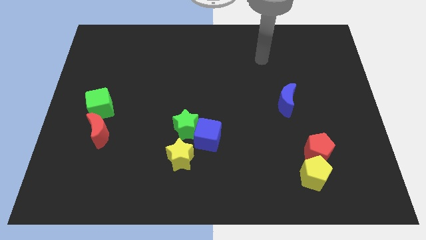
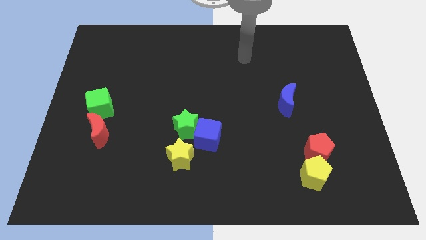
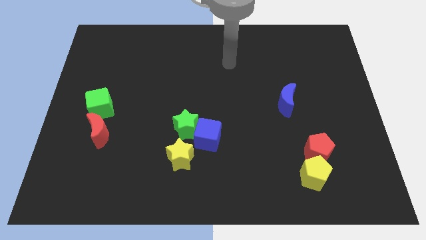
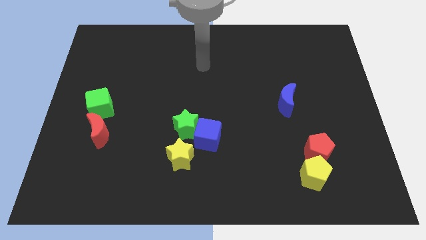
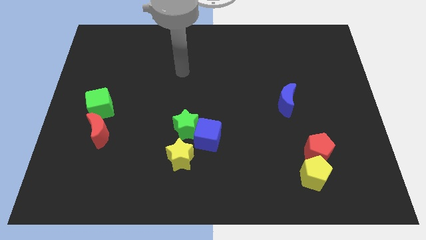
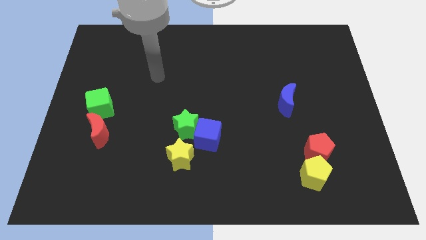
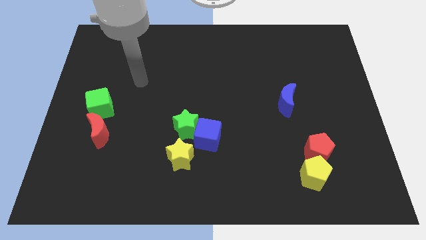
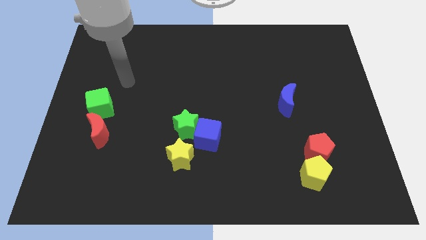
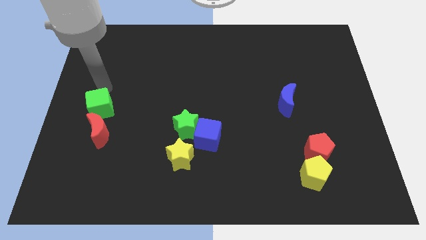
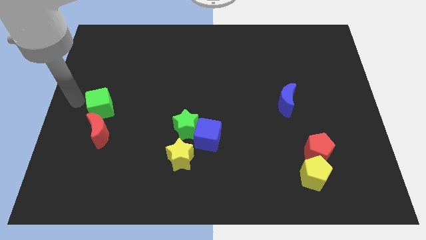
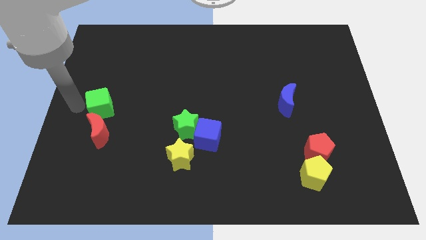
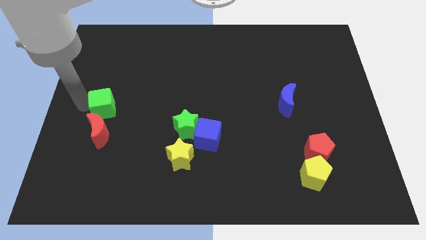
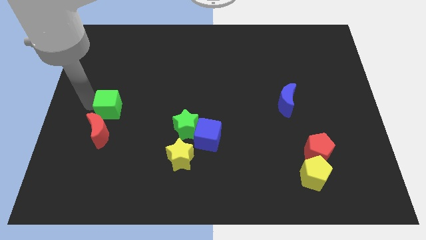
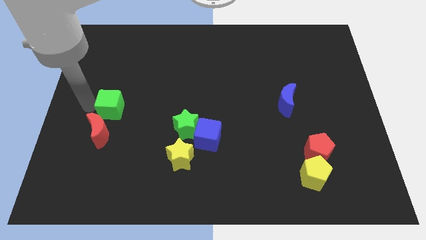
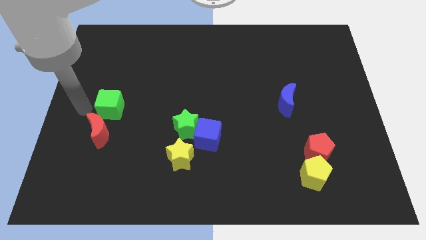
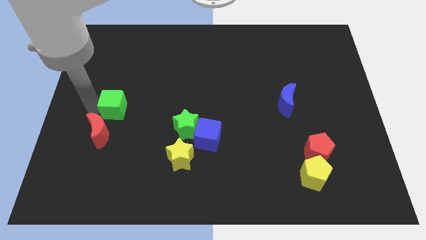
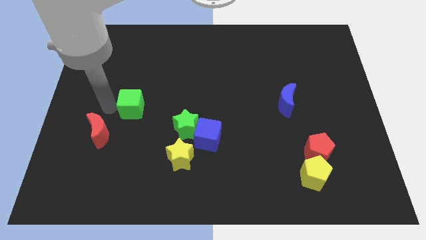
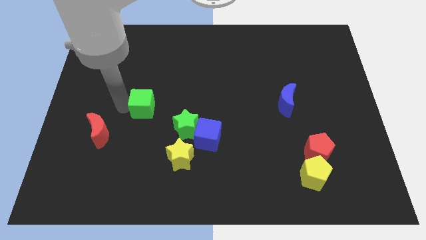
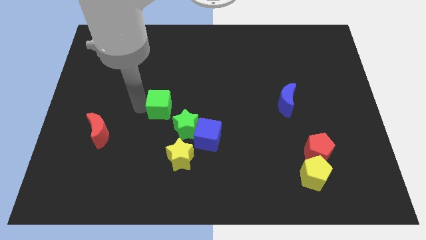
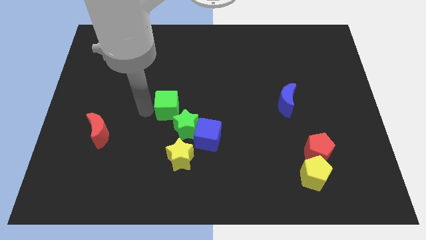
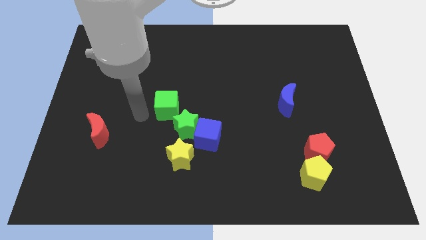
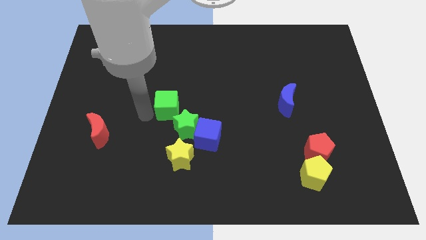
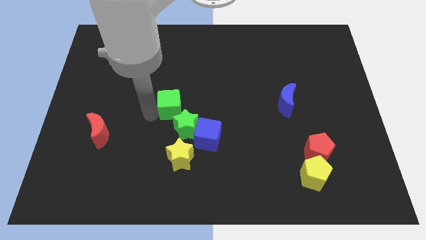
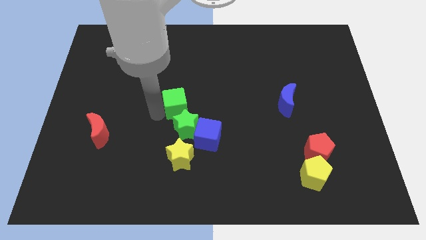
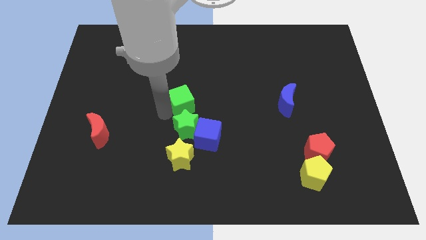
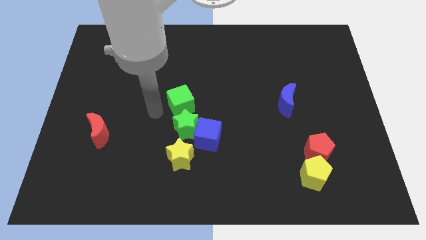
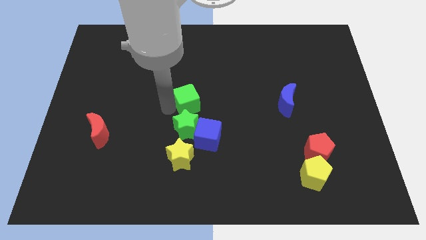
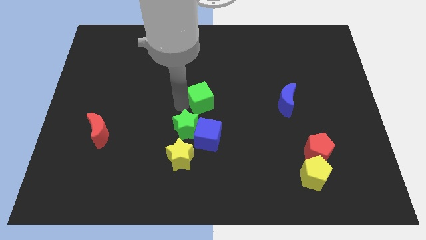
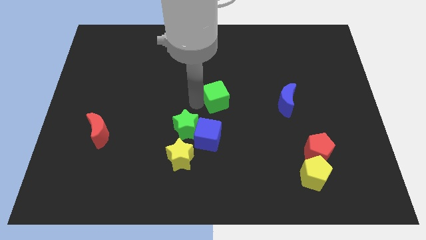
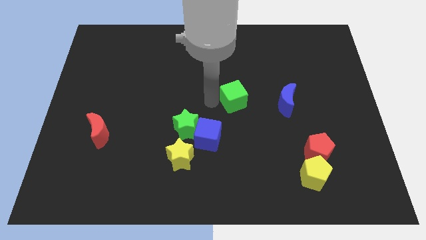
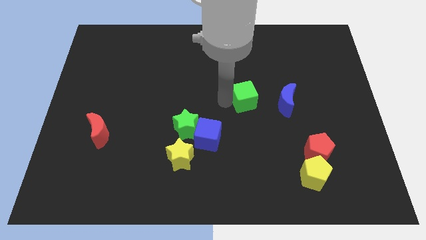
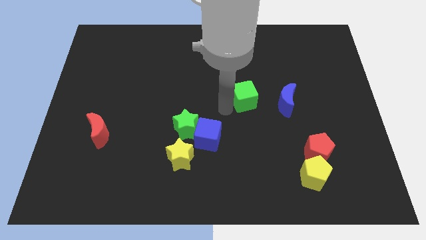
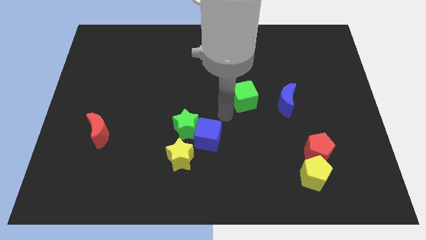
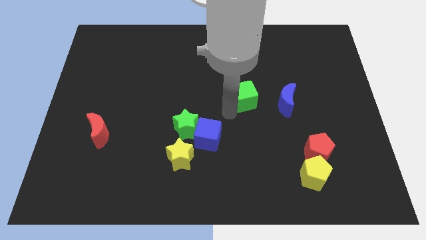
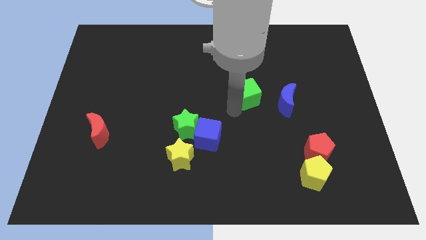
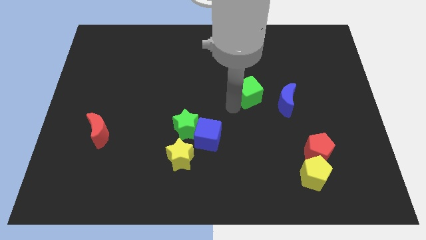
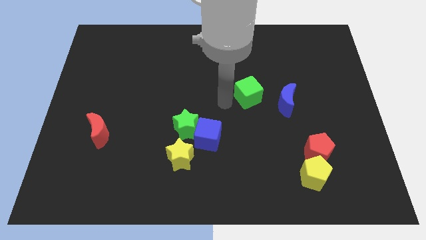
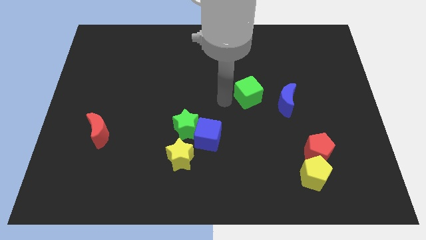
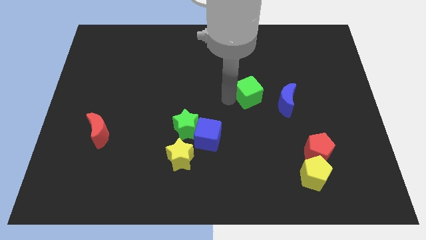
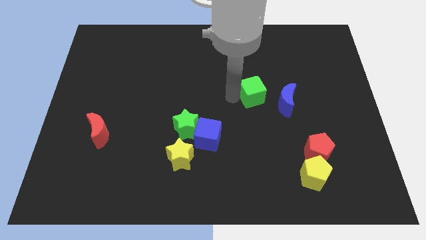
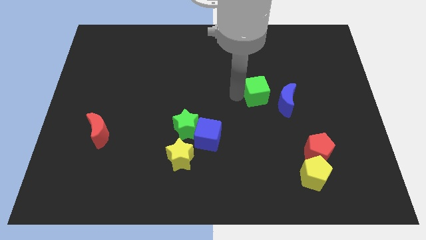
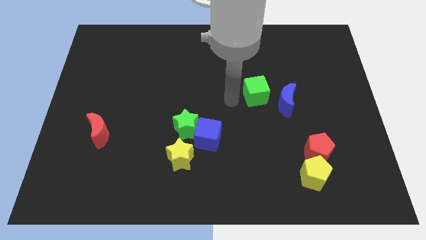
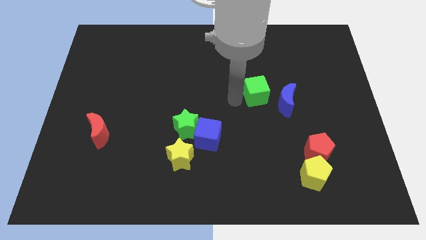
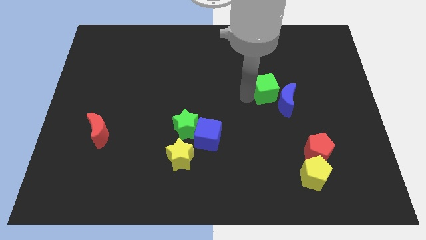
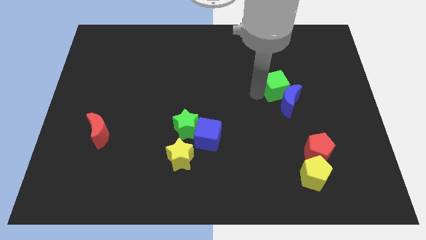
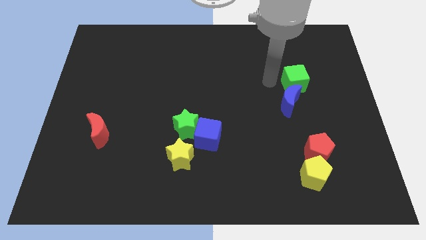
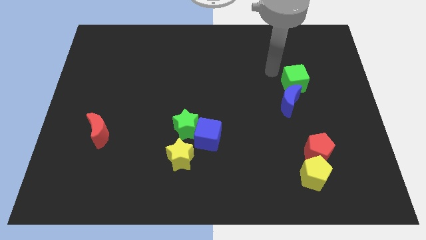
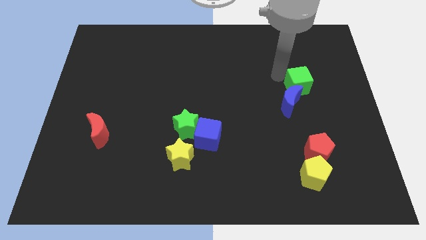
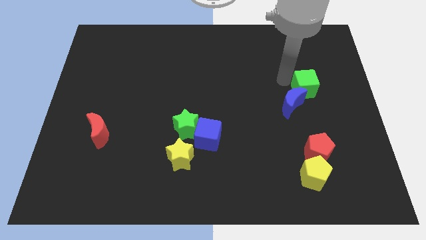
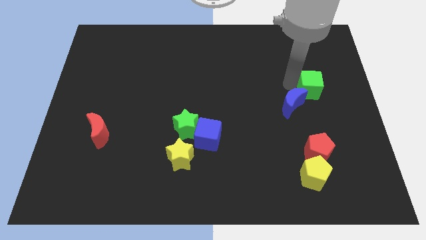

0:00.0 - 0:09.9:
slide the green cube right of the blue moon

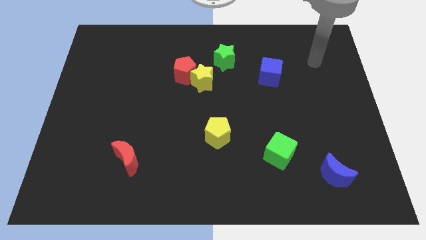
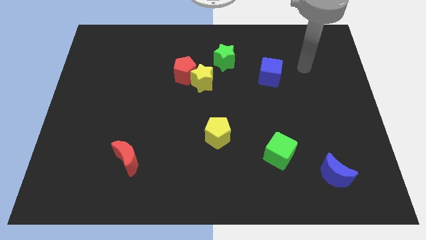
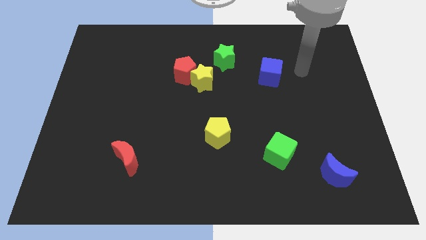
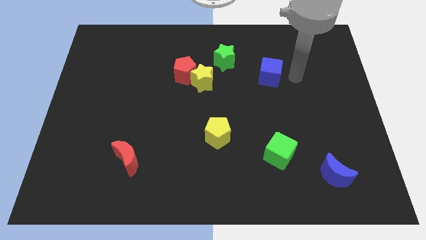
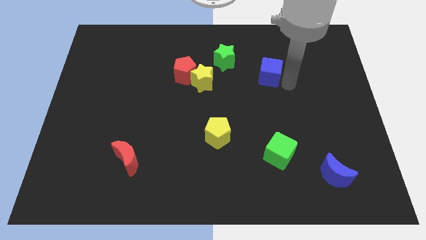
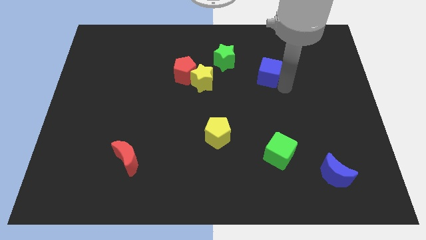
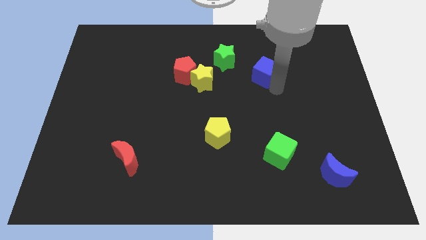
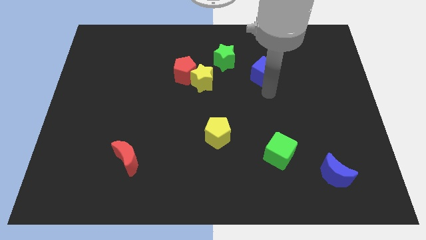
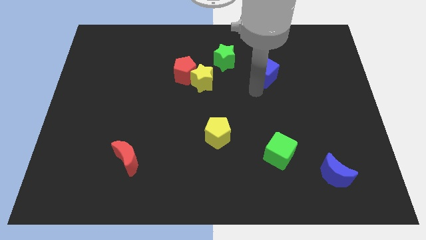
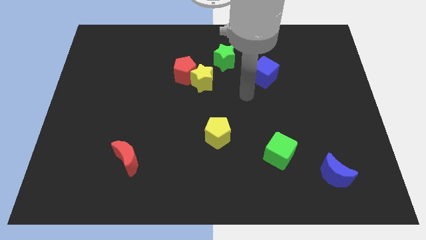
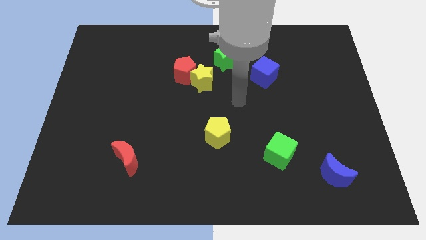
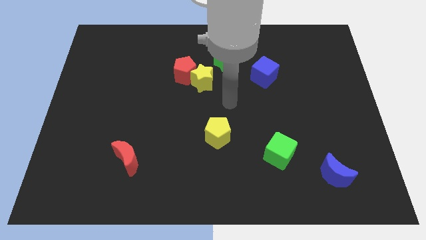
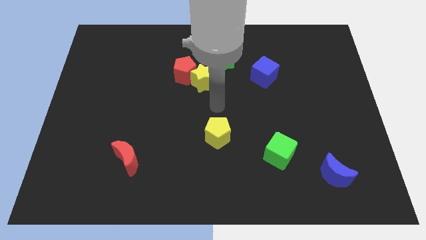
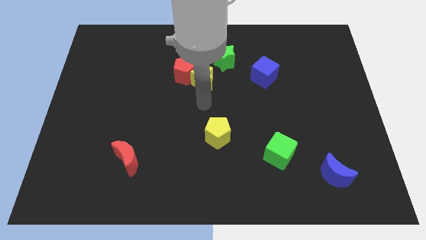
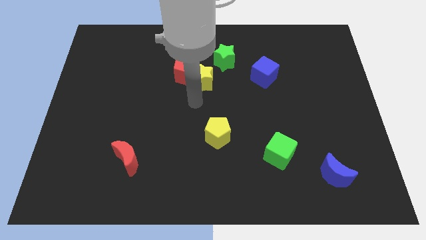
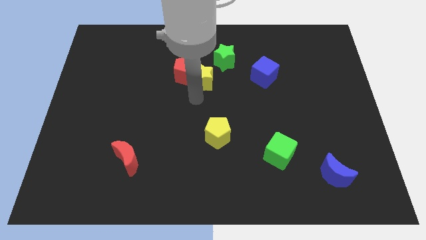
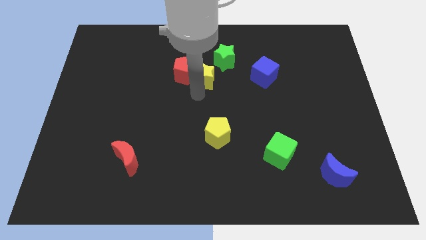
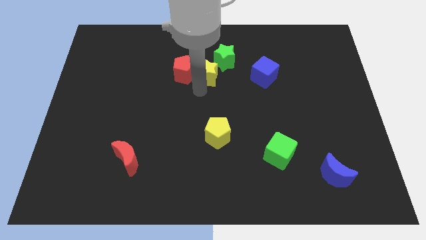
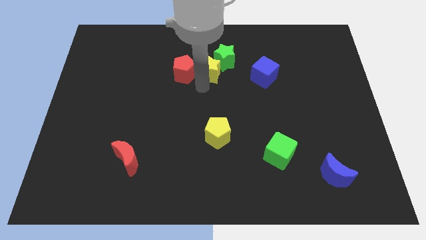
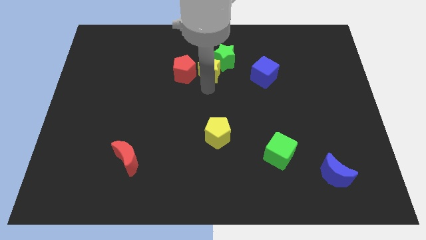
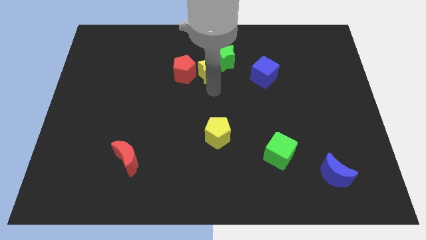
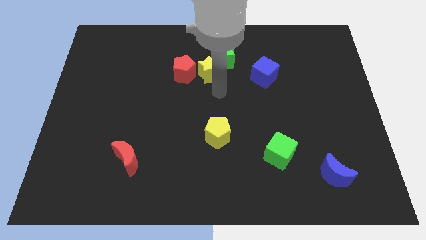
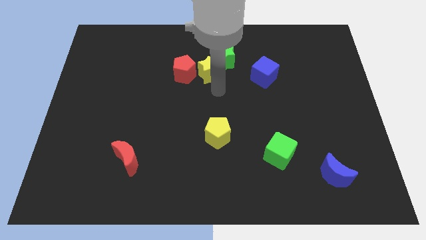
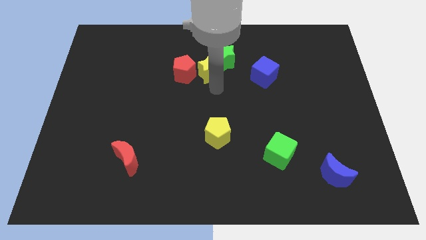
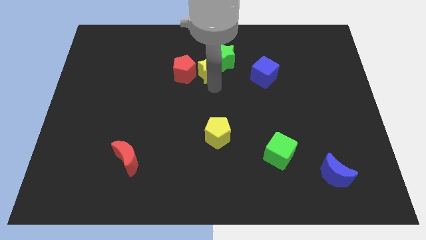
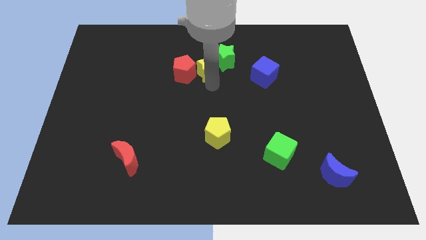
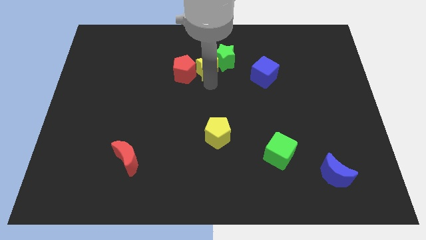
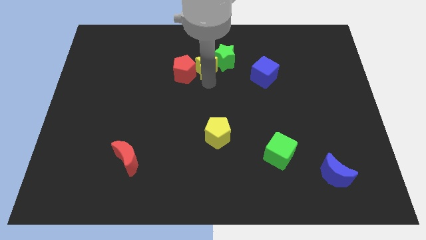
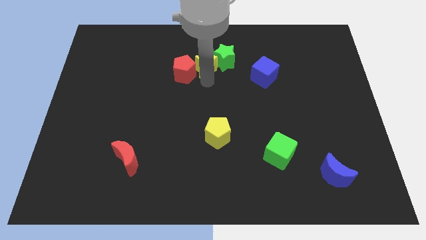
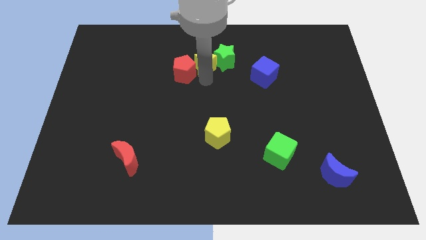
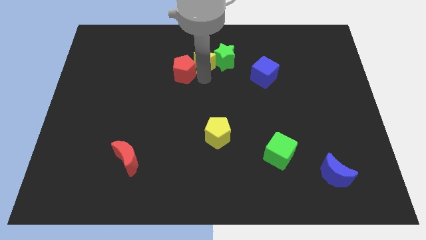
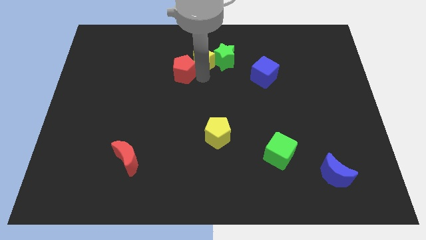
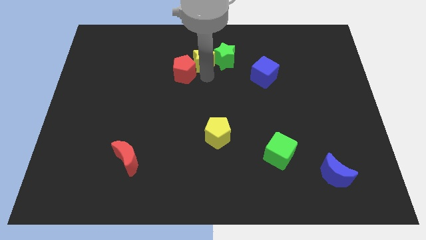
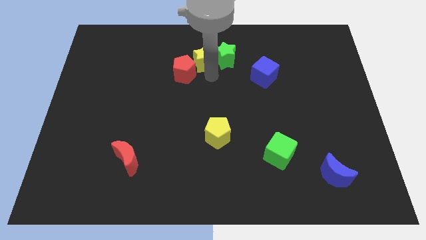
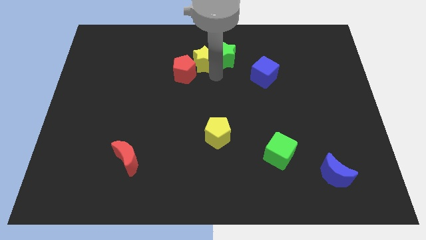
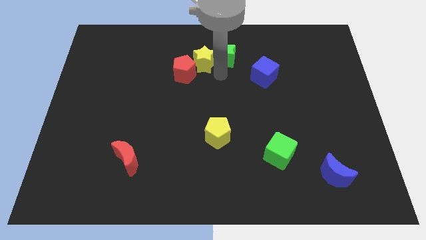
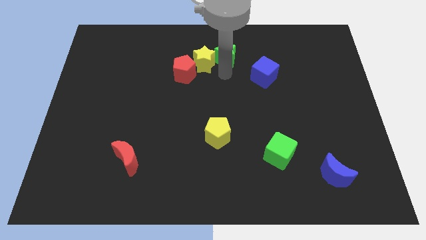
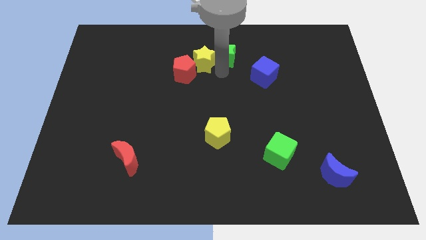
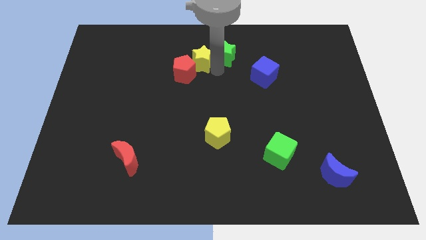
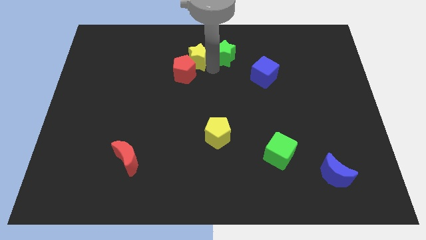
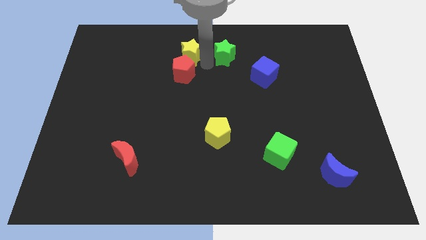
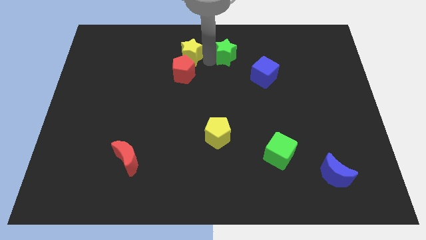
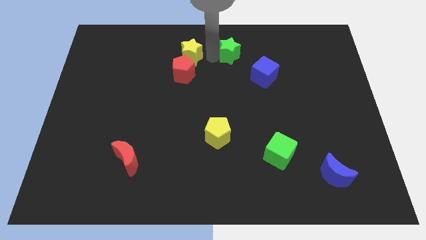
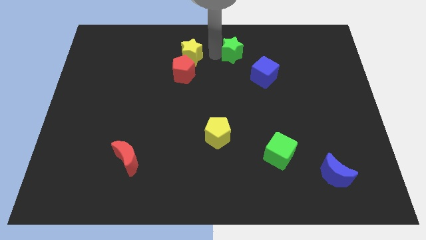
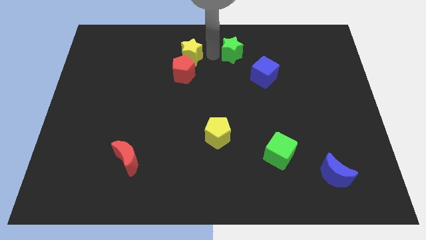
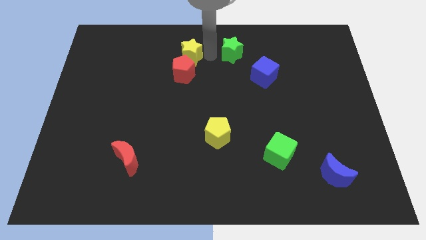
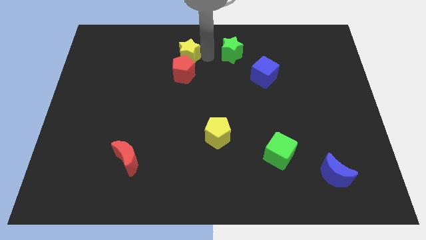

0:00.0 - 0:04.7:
move the yellow star diagonally up and to the left of the red pentagon
